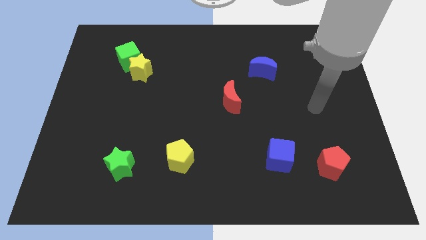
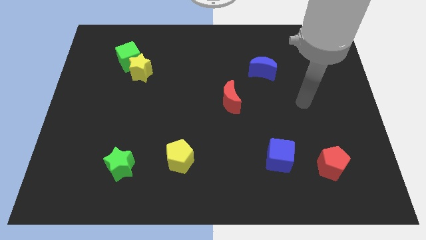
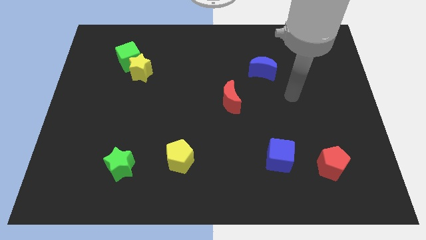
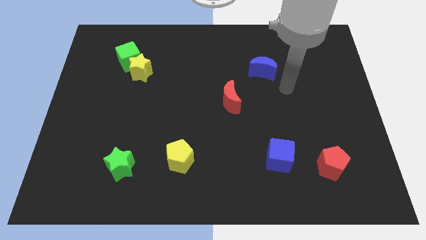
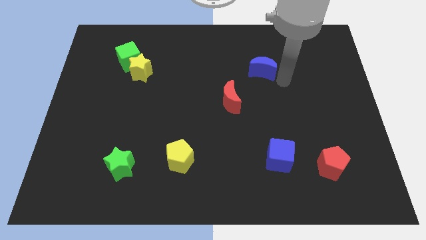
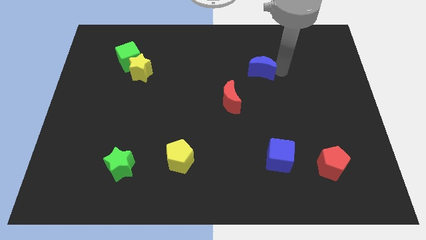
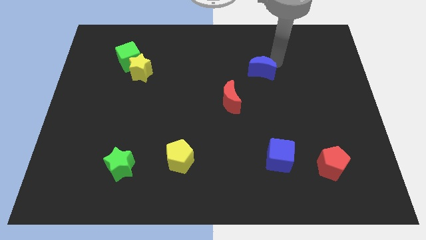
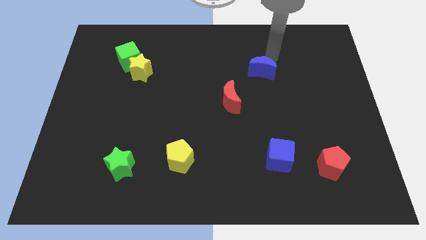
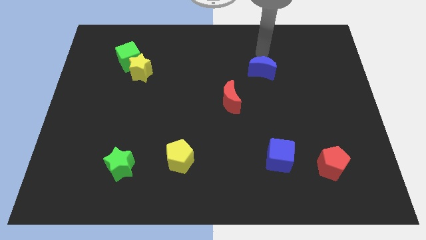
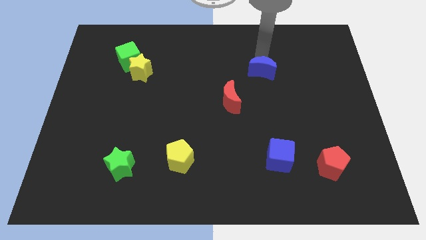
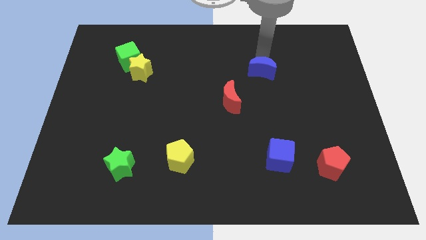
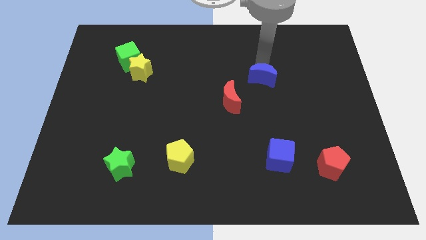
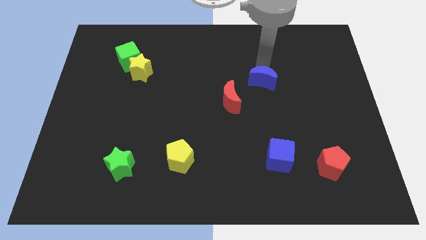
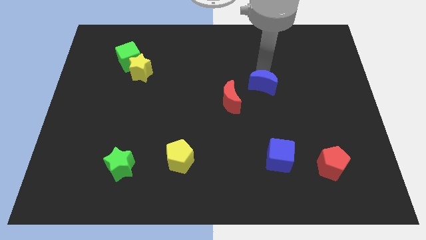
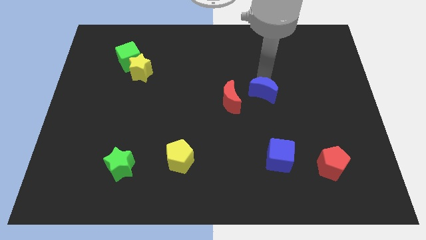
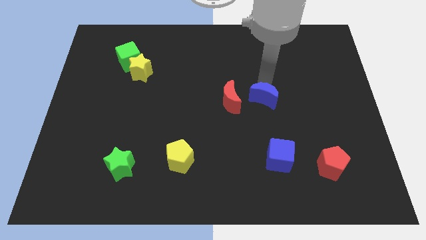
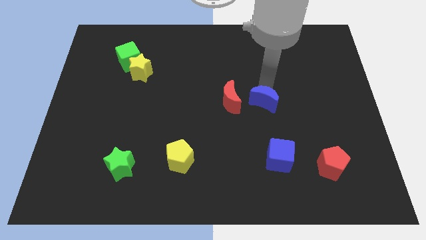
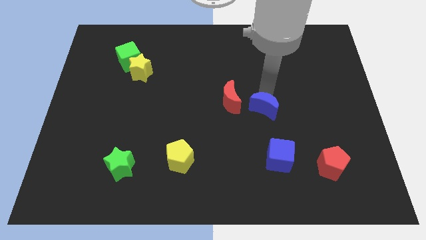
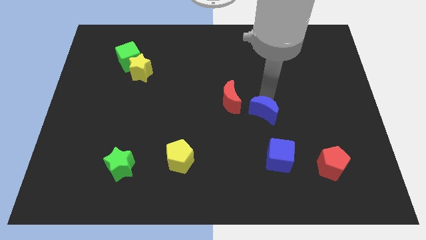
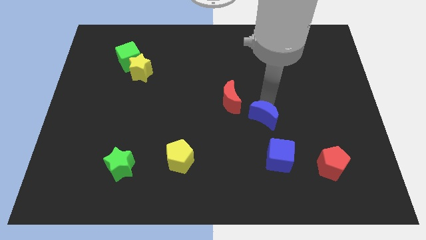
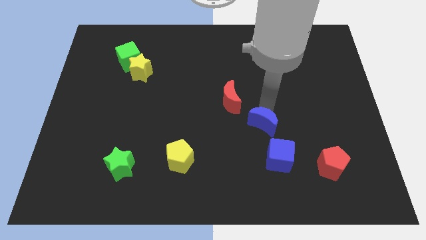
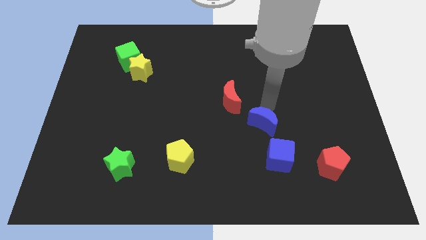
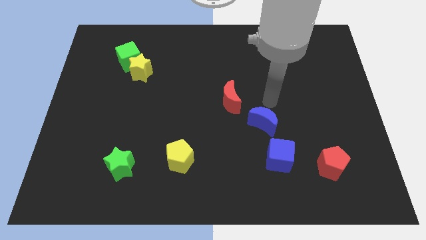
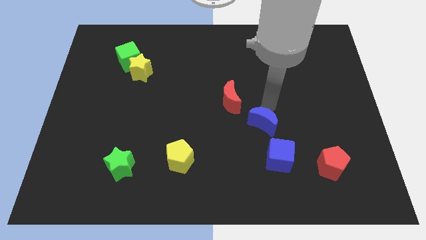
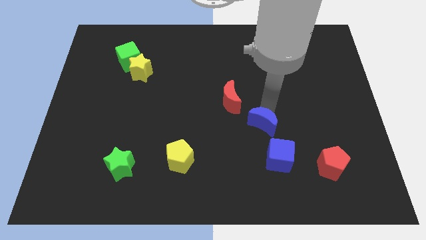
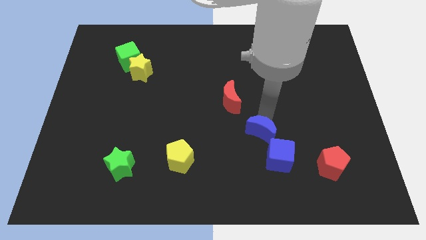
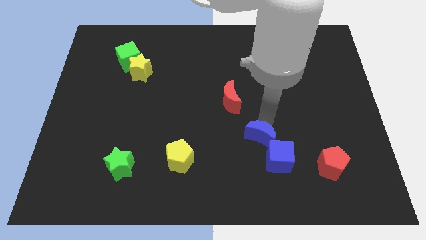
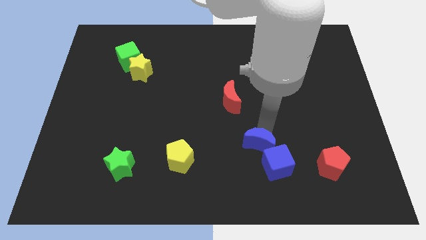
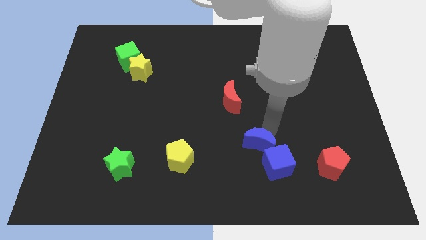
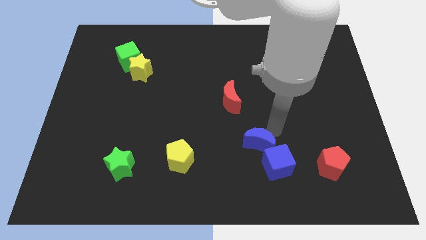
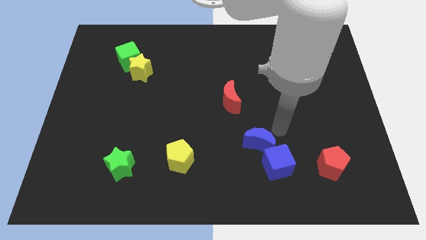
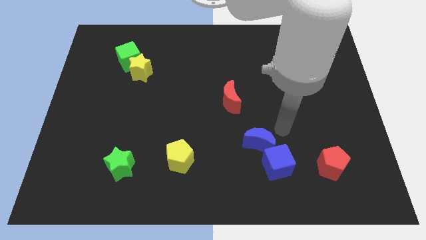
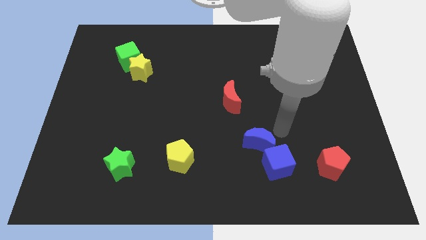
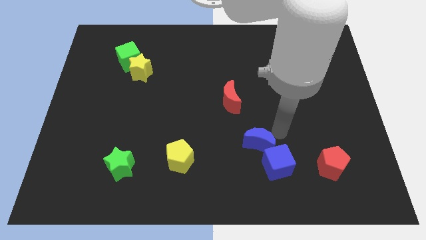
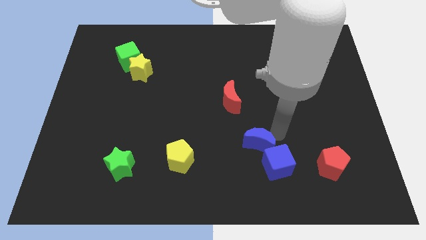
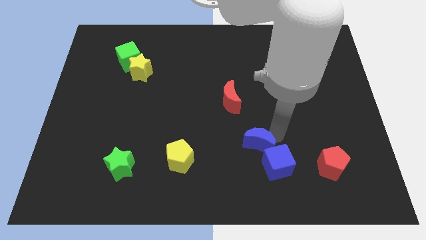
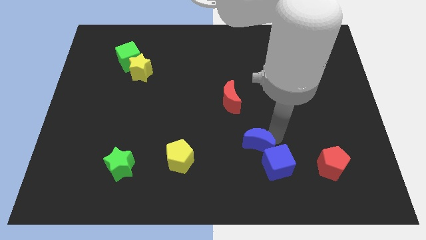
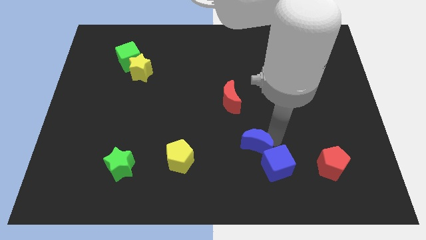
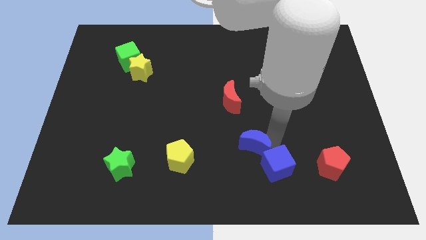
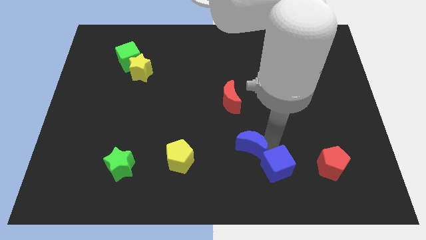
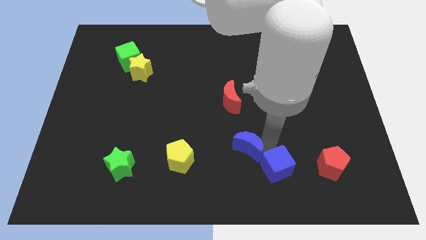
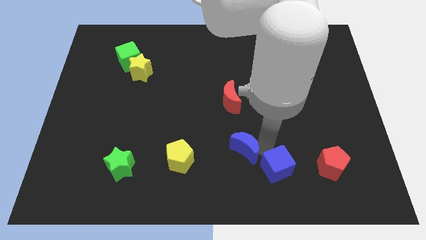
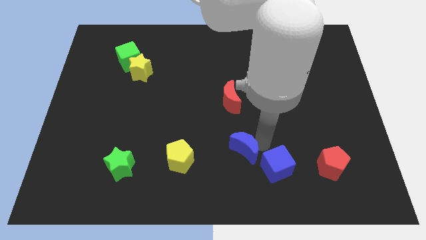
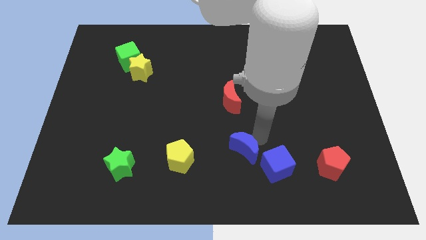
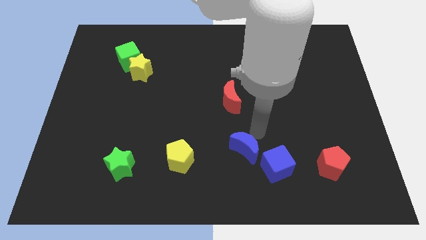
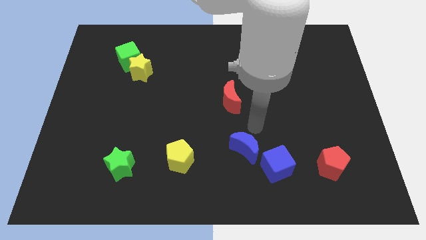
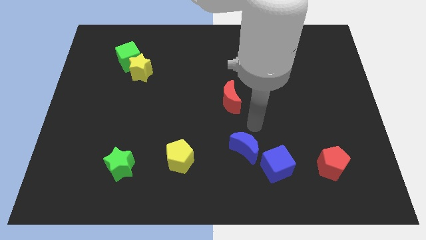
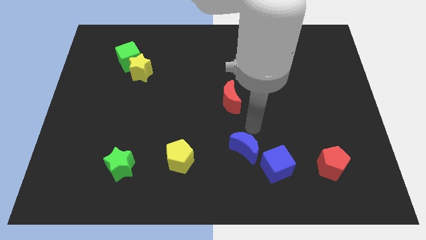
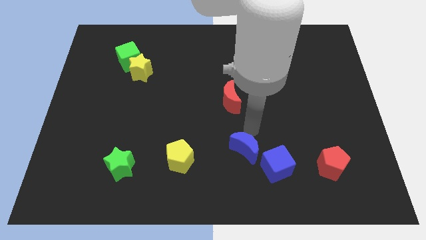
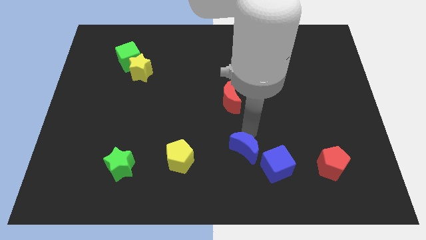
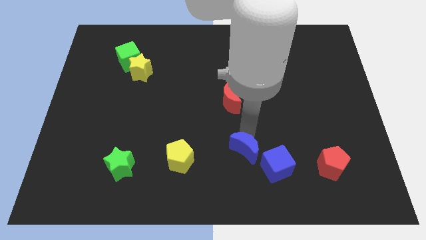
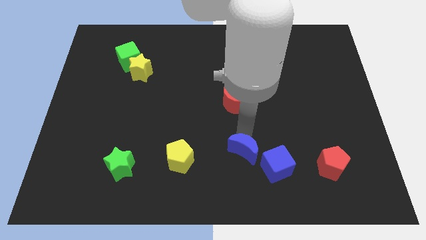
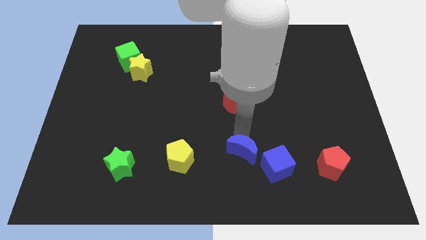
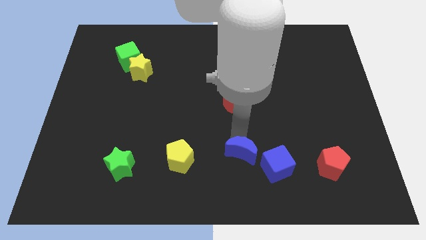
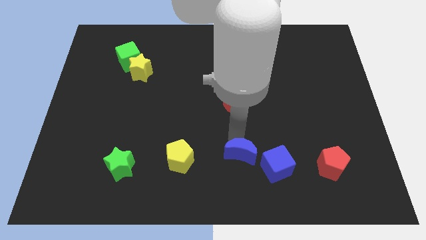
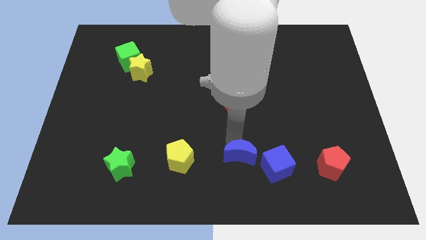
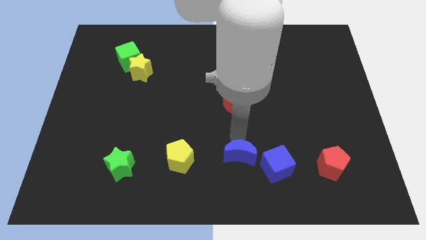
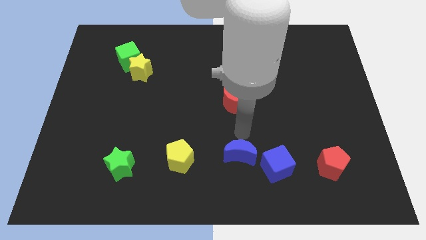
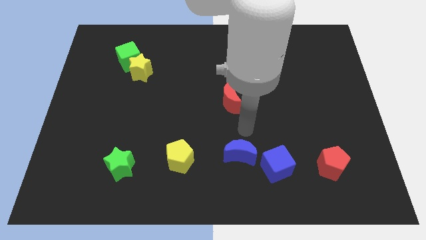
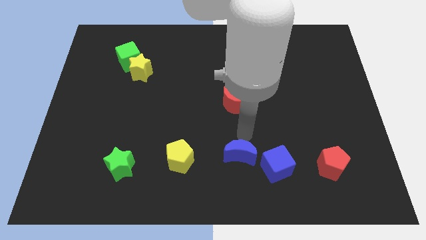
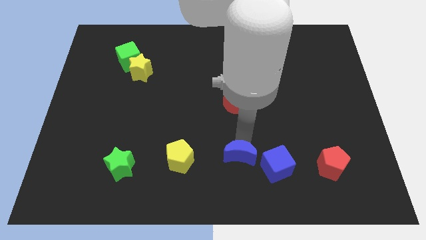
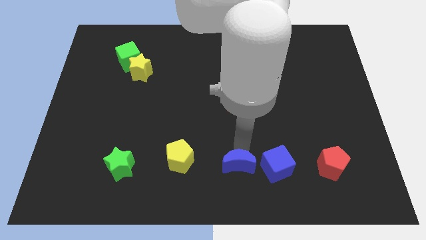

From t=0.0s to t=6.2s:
push the blue moon to the bottom side

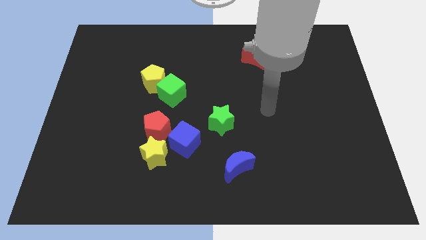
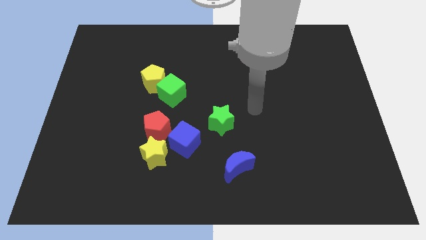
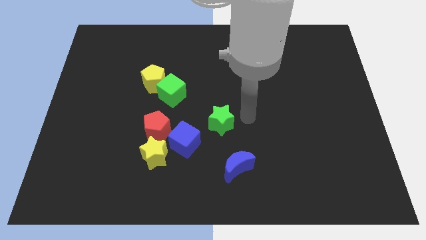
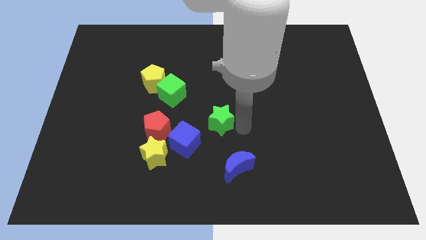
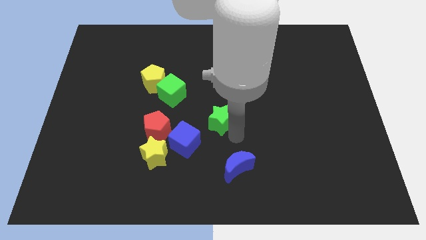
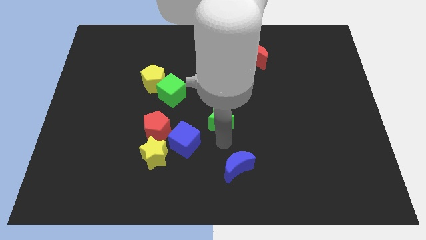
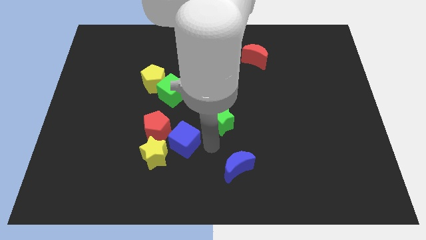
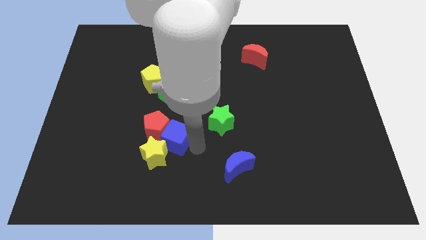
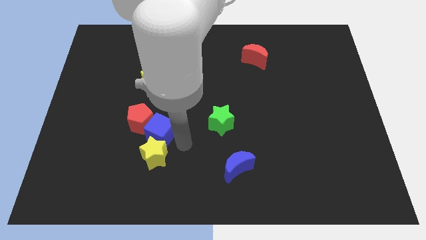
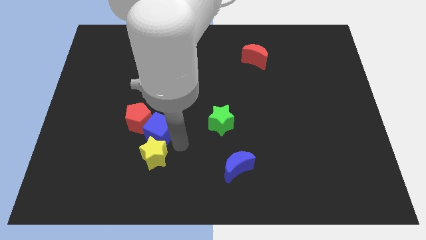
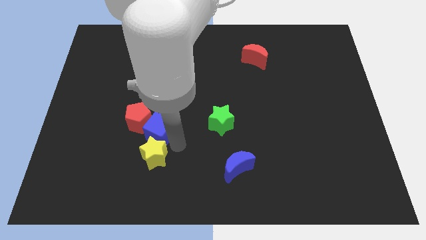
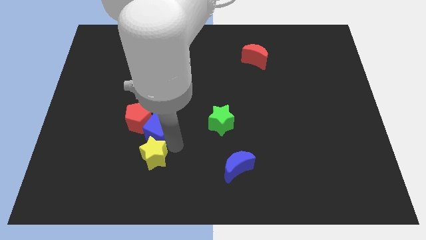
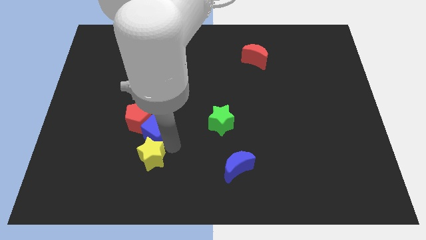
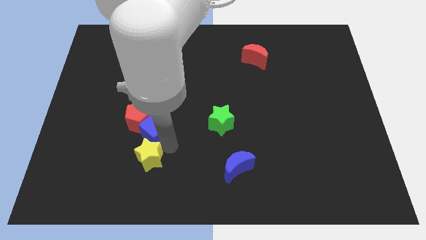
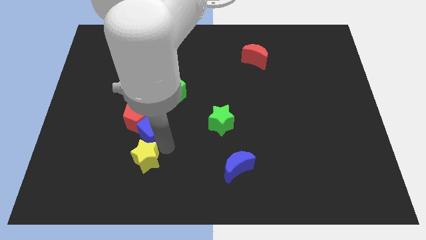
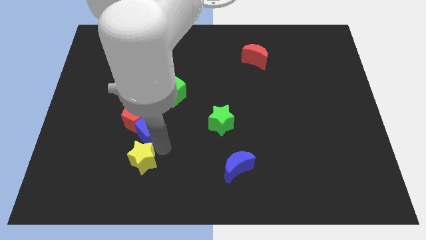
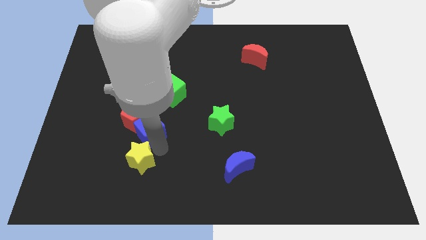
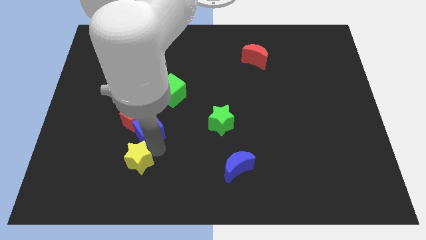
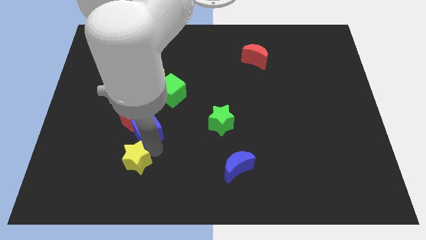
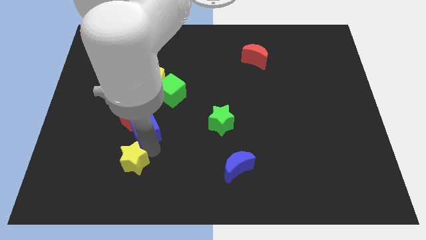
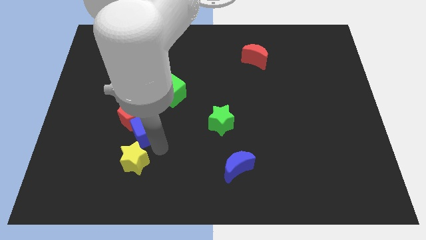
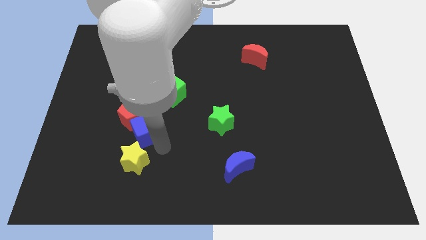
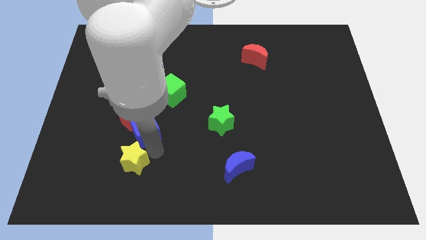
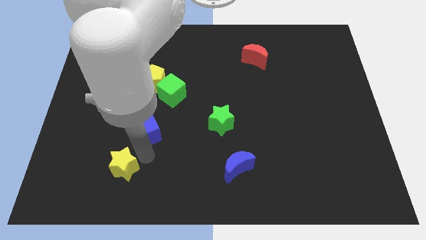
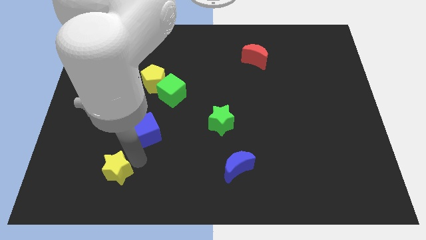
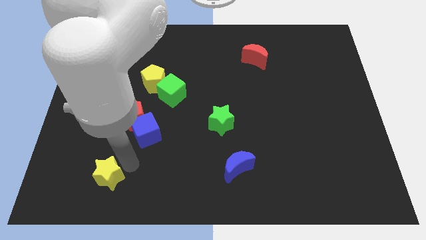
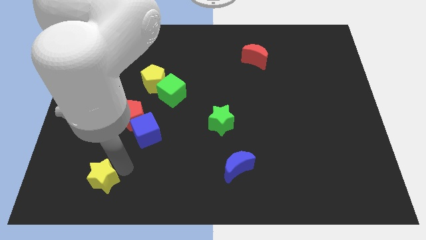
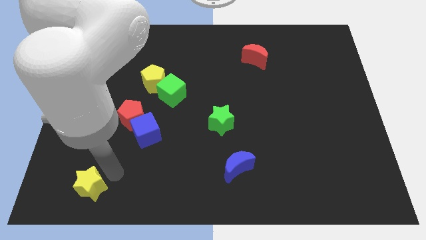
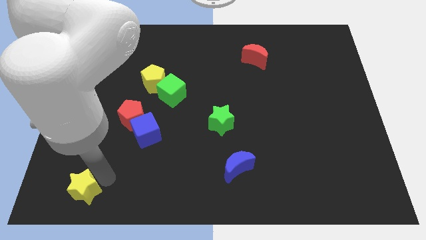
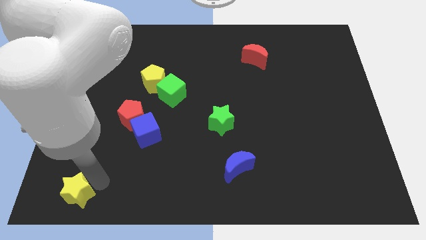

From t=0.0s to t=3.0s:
put the yellow star to the bottom left of the board
